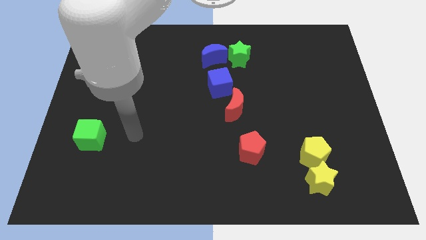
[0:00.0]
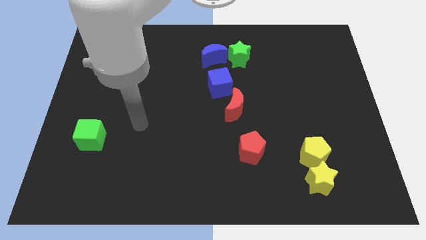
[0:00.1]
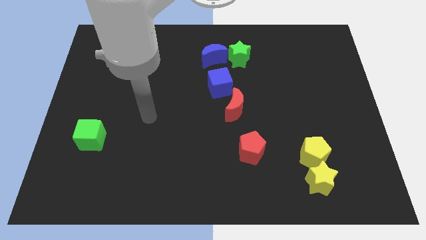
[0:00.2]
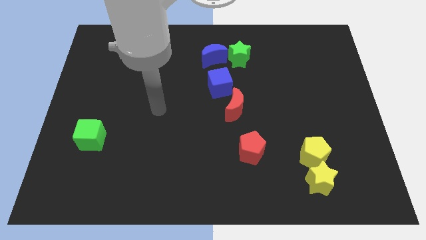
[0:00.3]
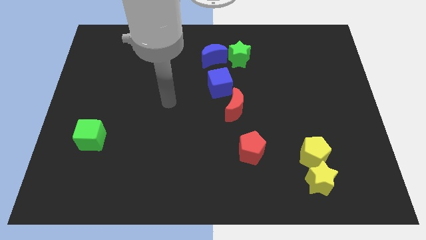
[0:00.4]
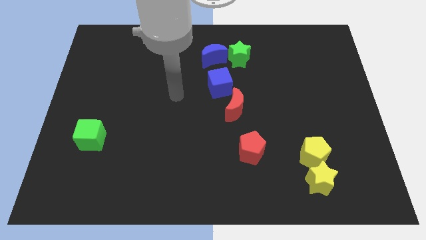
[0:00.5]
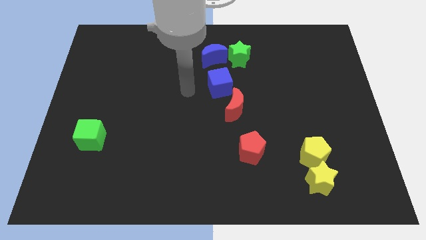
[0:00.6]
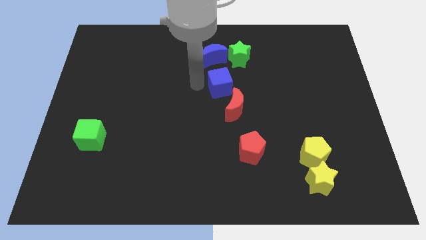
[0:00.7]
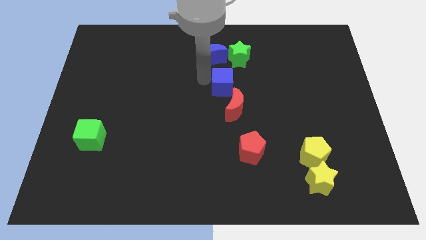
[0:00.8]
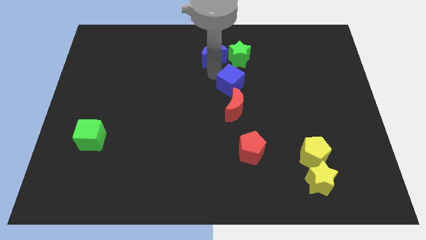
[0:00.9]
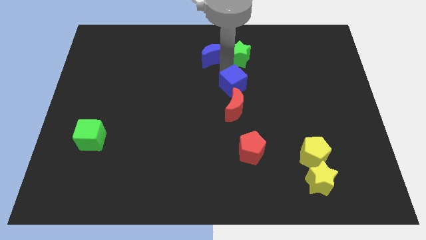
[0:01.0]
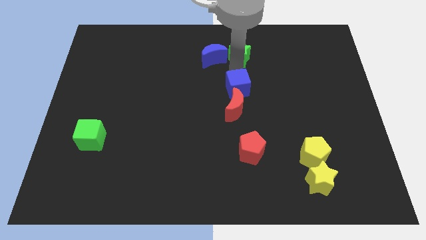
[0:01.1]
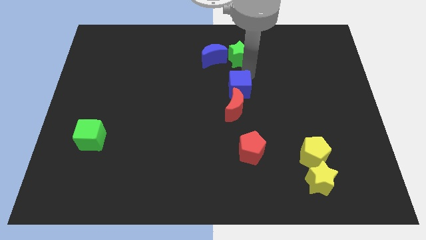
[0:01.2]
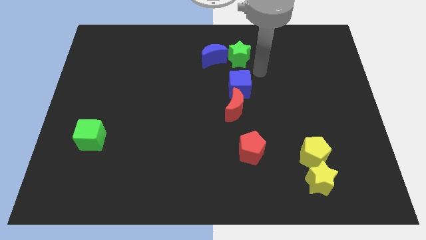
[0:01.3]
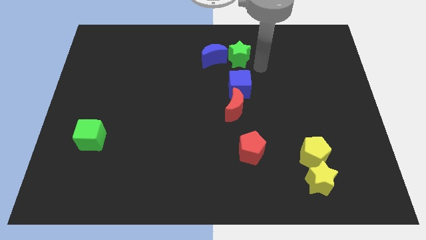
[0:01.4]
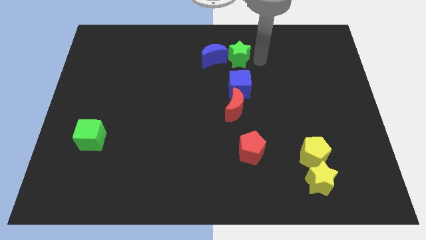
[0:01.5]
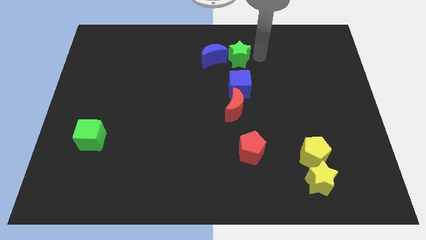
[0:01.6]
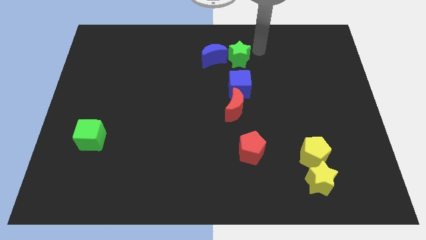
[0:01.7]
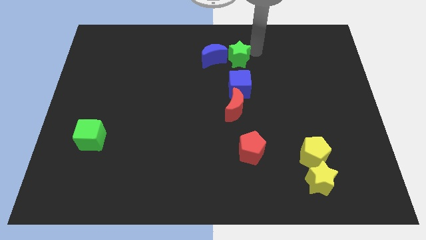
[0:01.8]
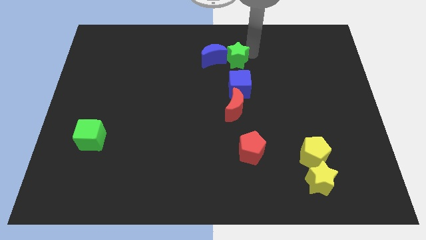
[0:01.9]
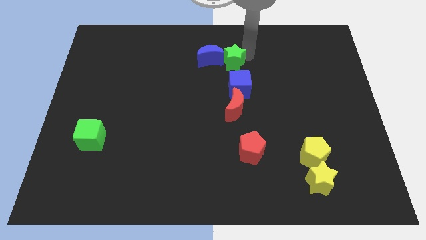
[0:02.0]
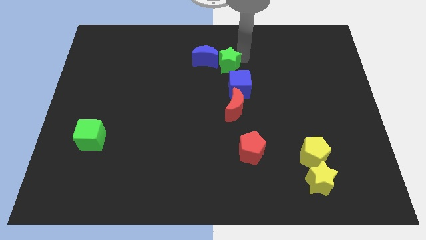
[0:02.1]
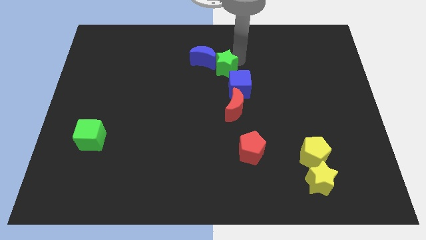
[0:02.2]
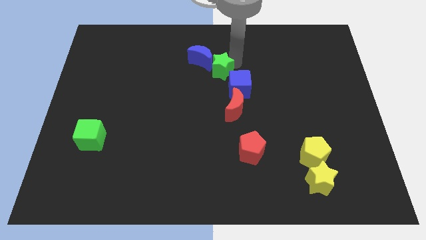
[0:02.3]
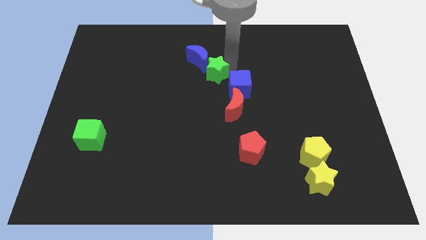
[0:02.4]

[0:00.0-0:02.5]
push the green star diagonally downwards and left a little bit

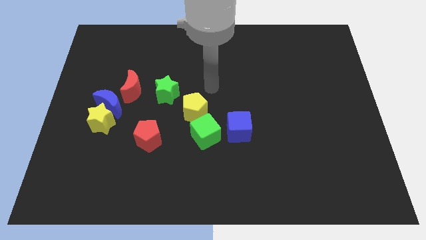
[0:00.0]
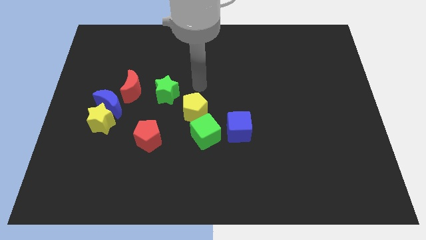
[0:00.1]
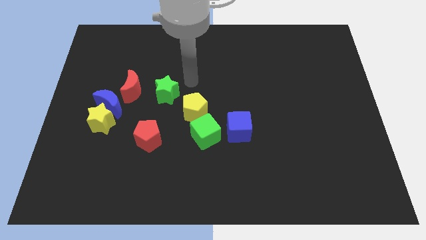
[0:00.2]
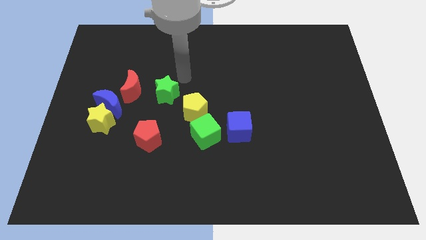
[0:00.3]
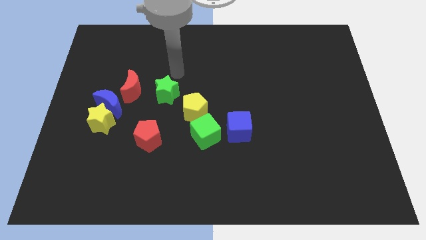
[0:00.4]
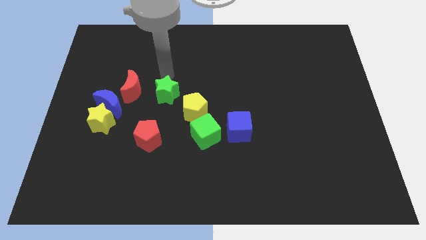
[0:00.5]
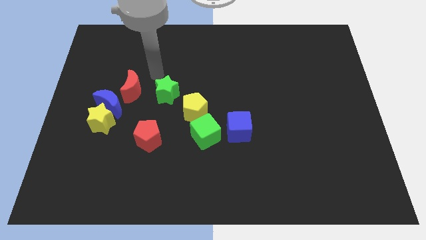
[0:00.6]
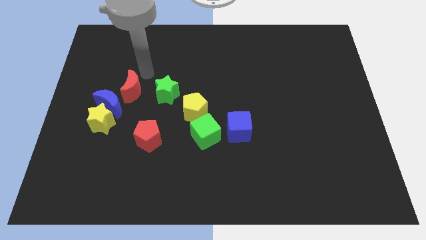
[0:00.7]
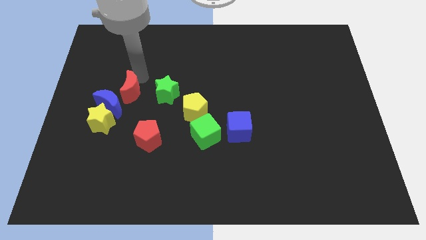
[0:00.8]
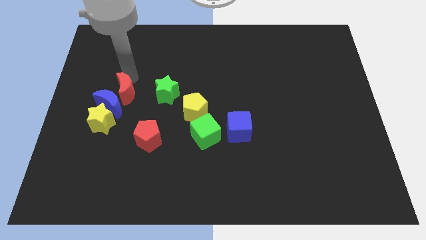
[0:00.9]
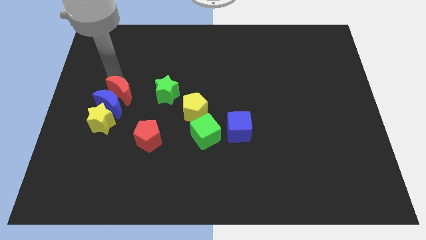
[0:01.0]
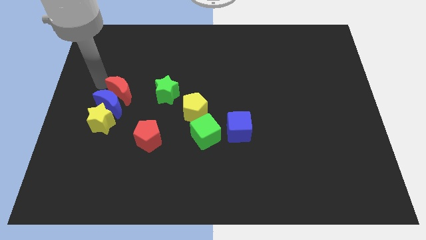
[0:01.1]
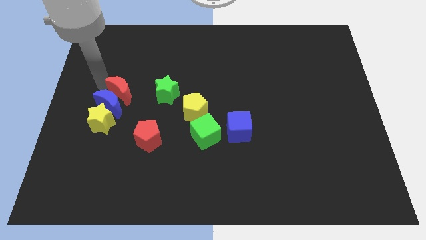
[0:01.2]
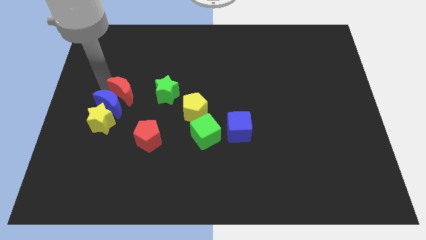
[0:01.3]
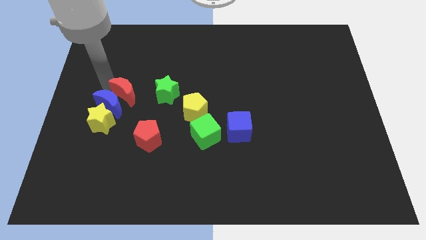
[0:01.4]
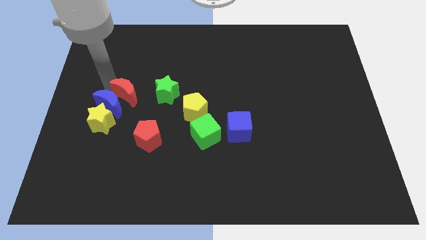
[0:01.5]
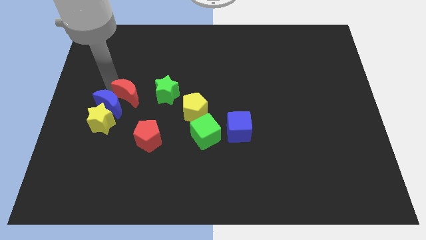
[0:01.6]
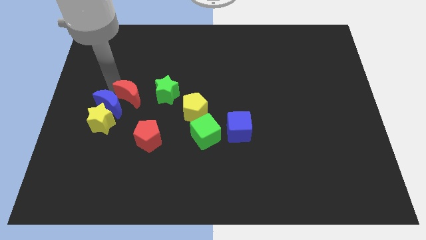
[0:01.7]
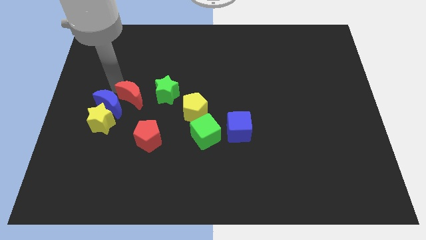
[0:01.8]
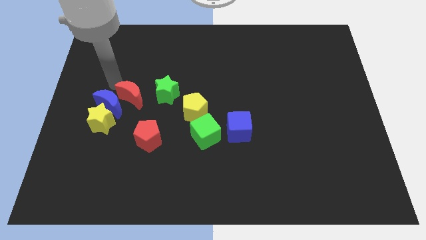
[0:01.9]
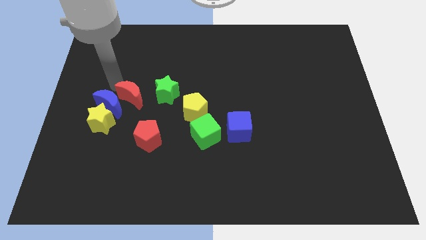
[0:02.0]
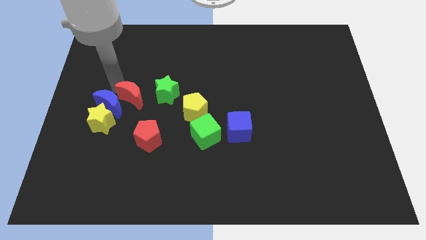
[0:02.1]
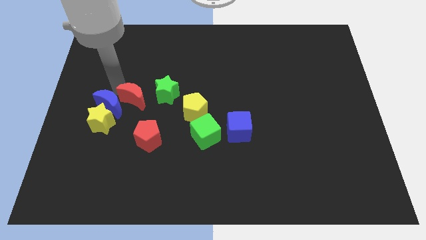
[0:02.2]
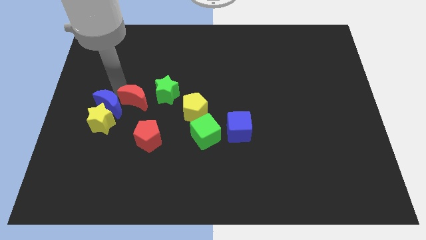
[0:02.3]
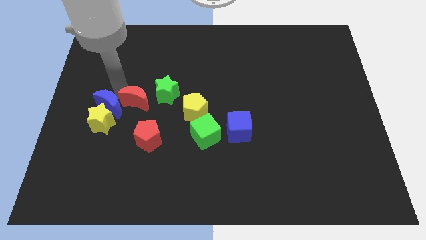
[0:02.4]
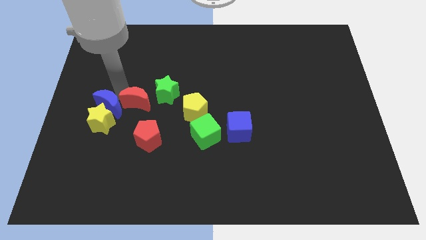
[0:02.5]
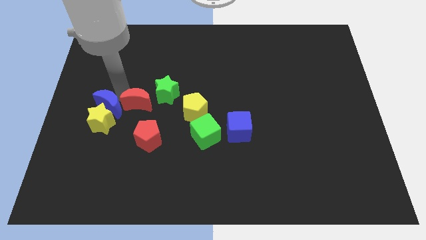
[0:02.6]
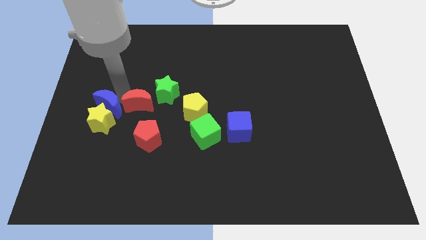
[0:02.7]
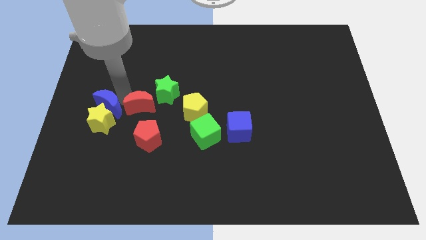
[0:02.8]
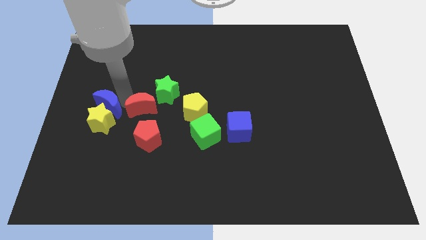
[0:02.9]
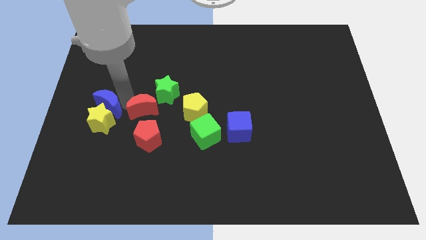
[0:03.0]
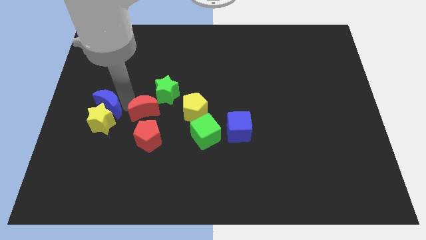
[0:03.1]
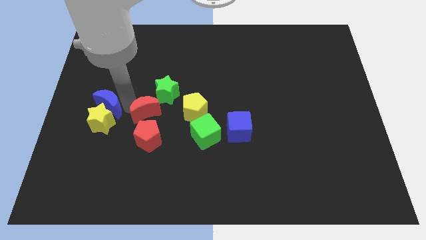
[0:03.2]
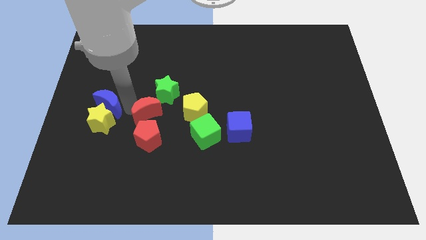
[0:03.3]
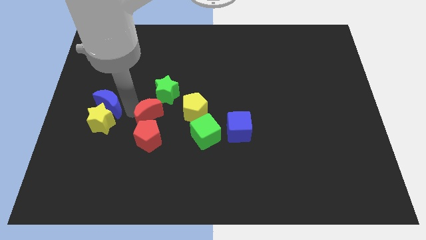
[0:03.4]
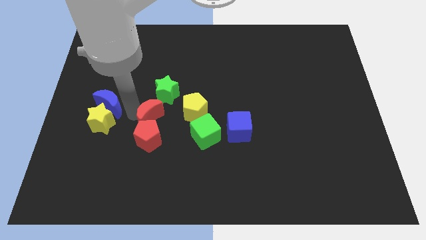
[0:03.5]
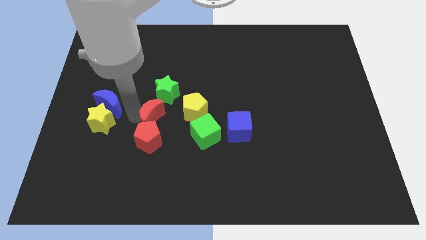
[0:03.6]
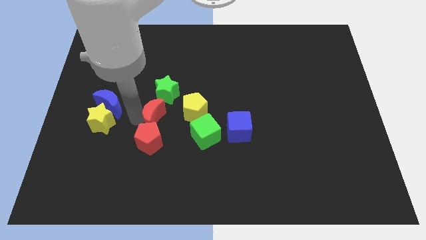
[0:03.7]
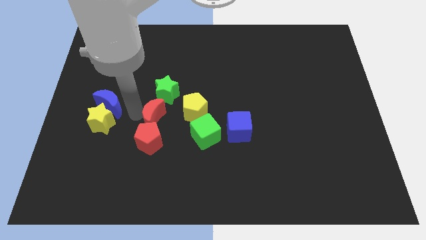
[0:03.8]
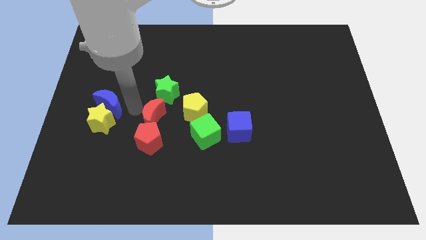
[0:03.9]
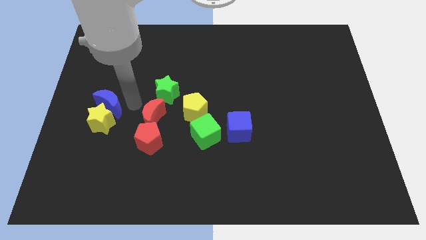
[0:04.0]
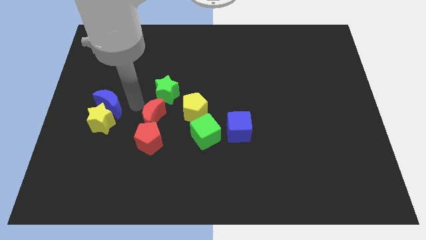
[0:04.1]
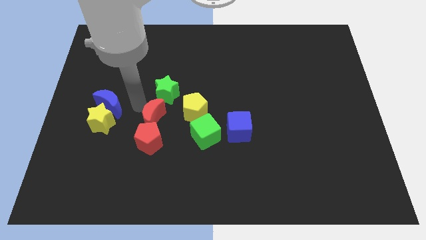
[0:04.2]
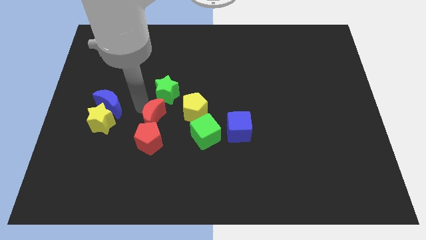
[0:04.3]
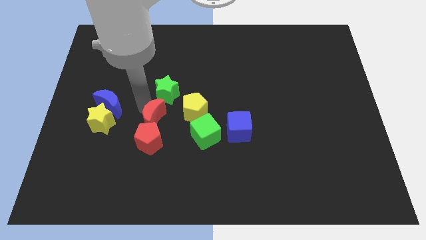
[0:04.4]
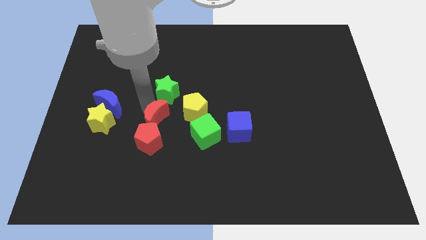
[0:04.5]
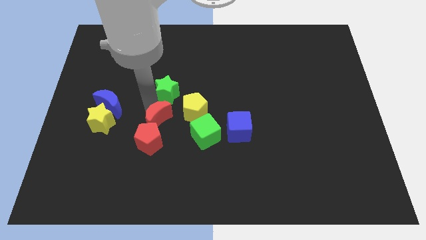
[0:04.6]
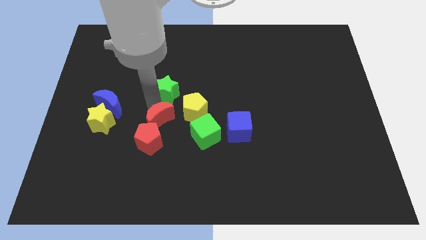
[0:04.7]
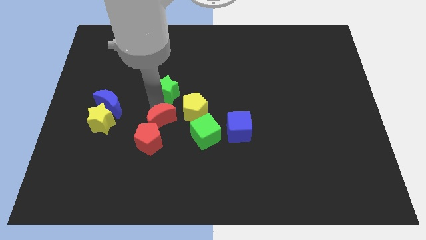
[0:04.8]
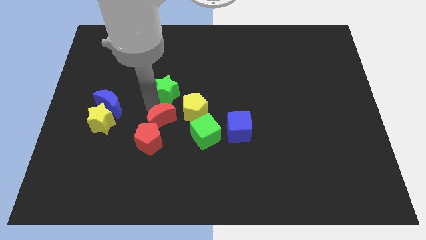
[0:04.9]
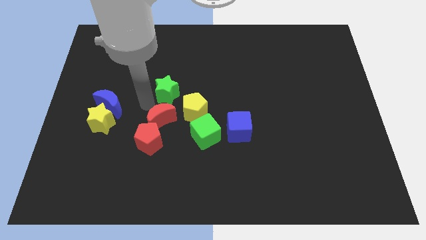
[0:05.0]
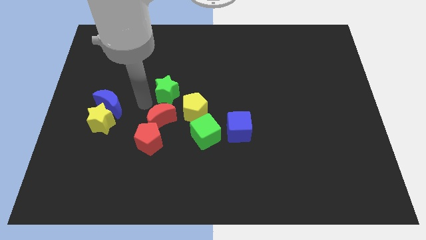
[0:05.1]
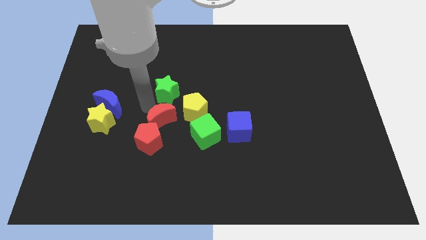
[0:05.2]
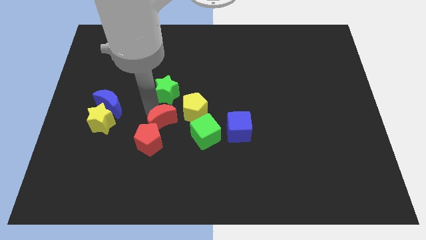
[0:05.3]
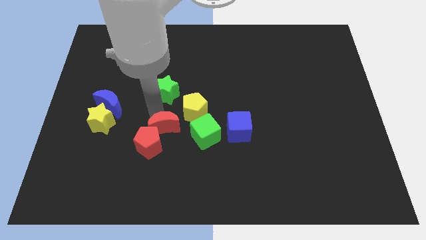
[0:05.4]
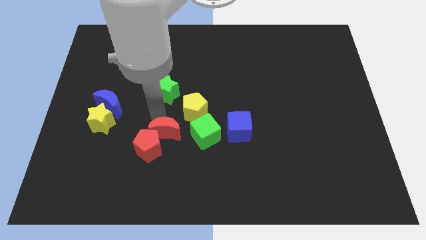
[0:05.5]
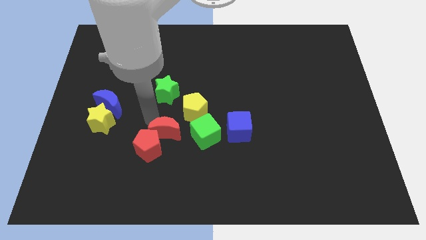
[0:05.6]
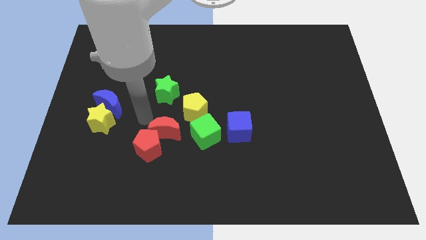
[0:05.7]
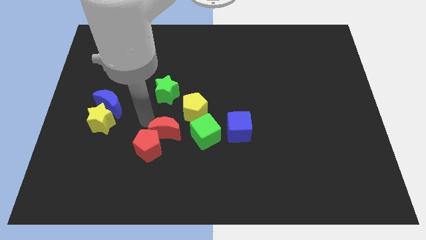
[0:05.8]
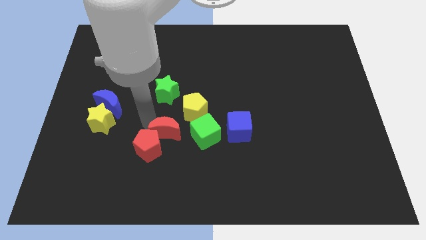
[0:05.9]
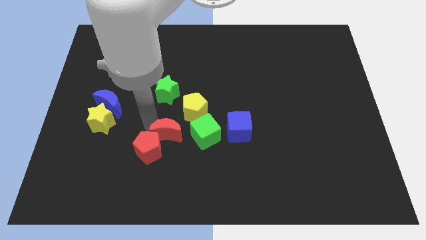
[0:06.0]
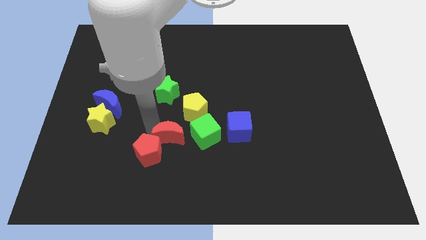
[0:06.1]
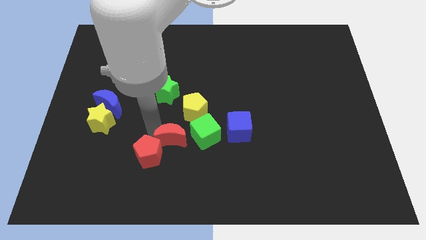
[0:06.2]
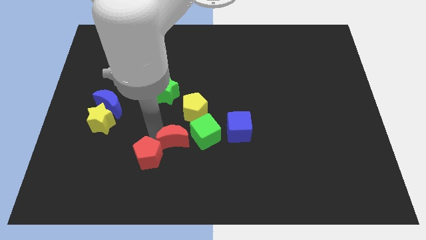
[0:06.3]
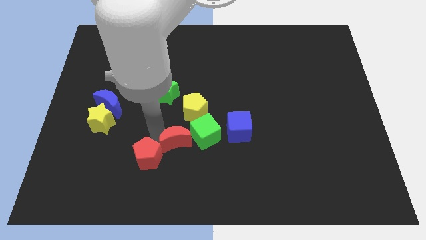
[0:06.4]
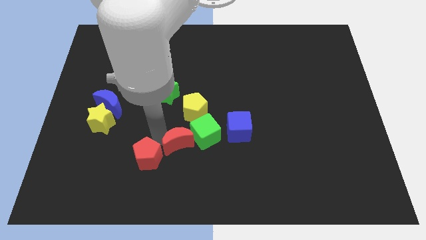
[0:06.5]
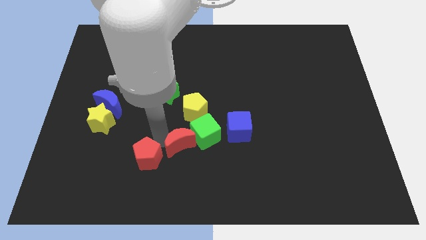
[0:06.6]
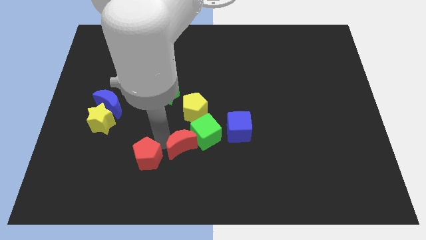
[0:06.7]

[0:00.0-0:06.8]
move the red moon downwards and then right
